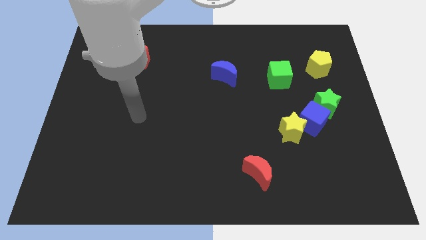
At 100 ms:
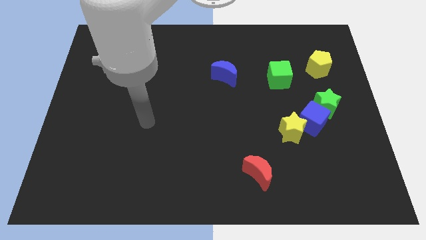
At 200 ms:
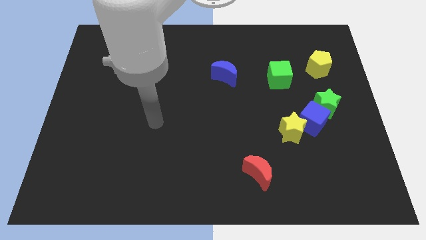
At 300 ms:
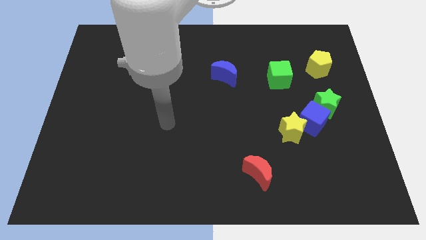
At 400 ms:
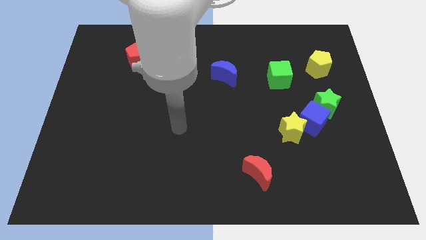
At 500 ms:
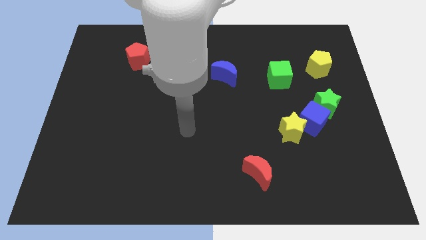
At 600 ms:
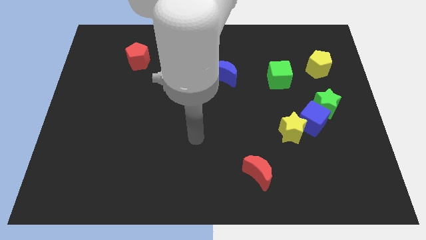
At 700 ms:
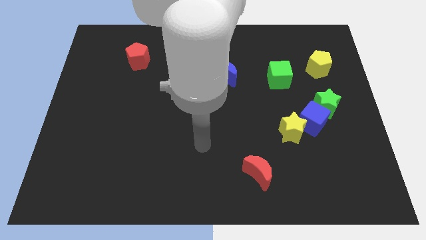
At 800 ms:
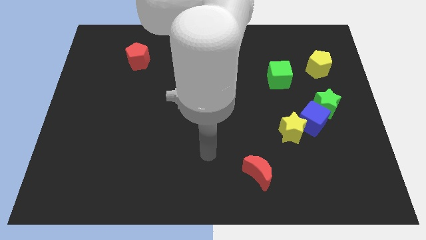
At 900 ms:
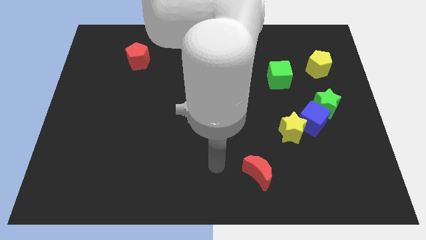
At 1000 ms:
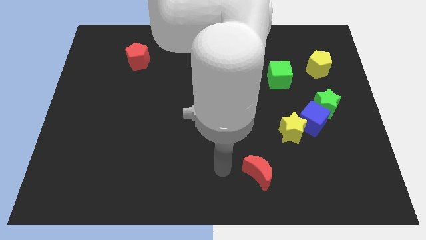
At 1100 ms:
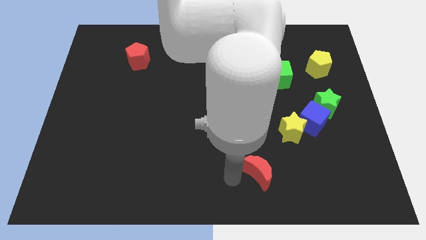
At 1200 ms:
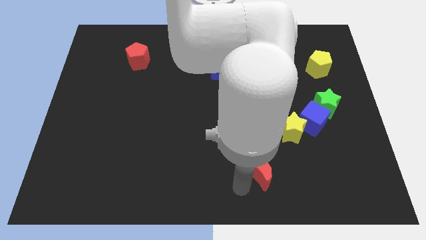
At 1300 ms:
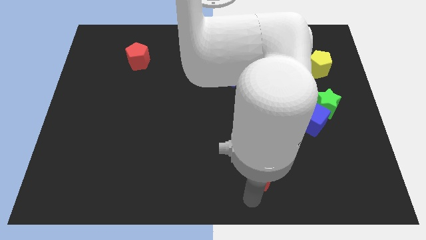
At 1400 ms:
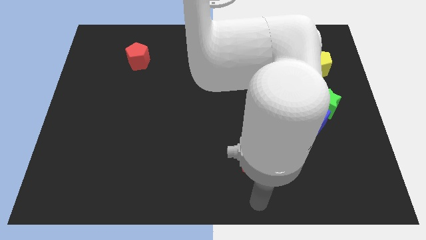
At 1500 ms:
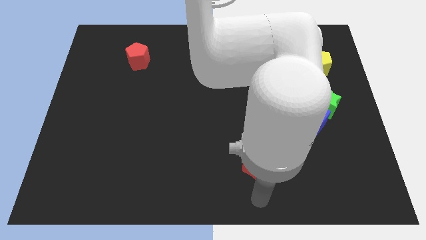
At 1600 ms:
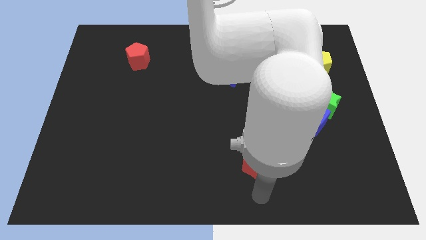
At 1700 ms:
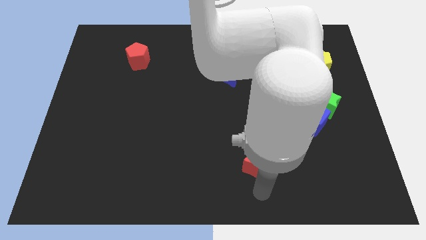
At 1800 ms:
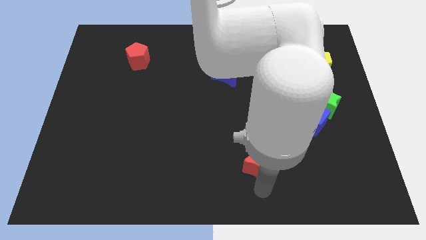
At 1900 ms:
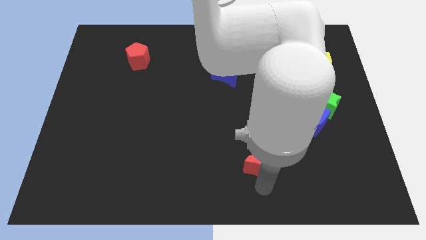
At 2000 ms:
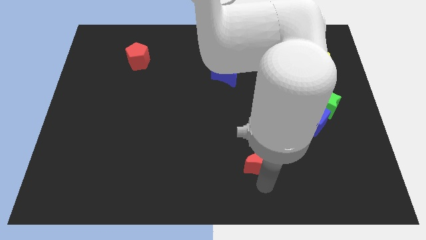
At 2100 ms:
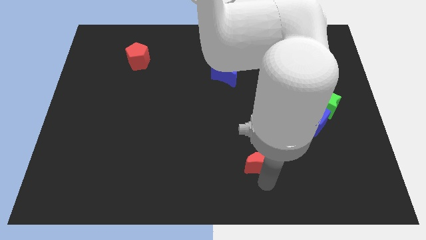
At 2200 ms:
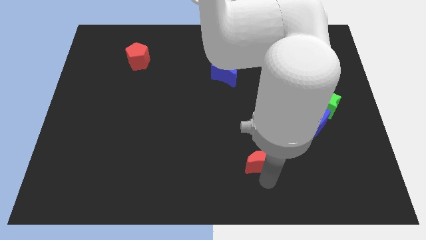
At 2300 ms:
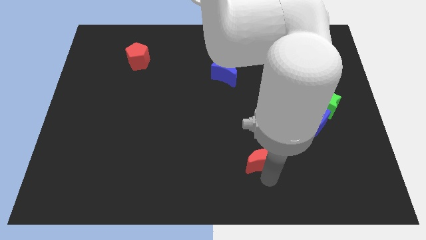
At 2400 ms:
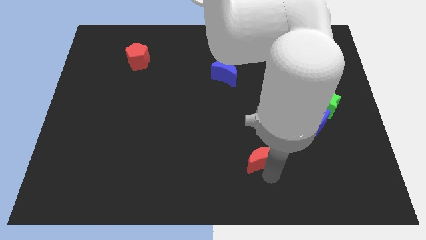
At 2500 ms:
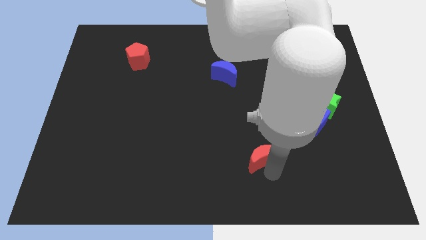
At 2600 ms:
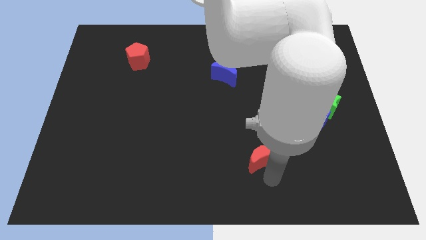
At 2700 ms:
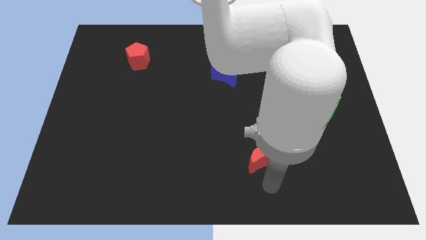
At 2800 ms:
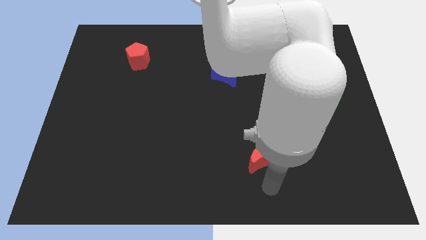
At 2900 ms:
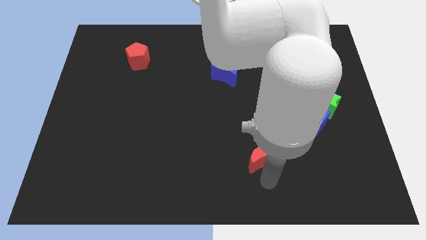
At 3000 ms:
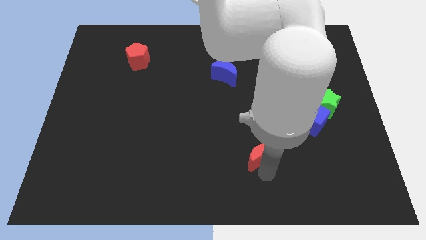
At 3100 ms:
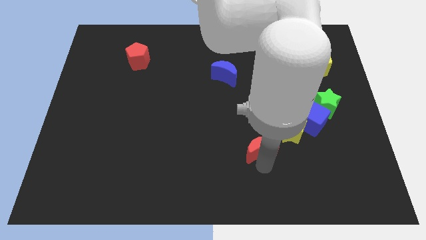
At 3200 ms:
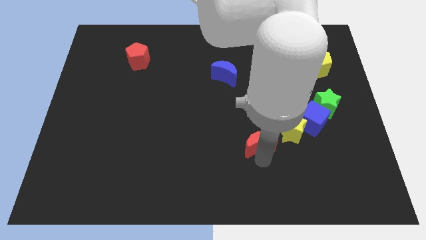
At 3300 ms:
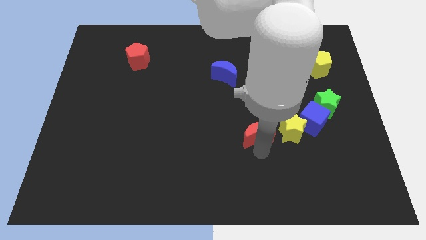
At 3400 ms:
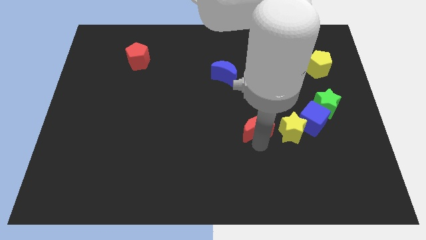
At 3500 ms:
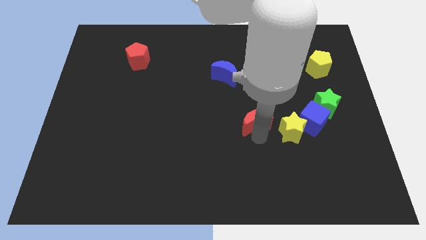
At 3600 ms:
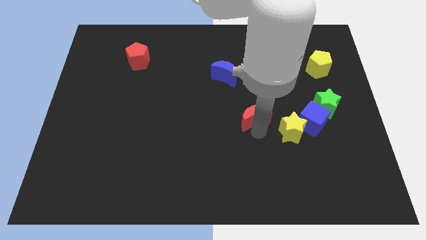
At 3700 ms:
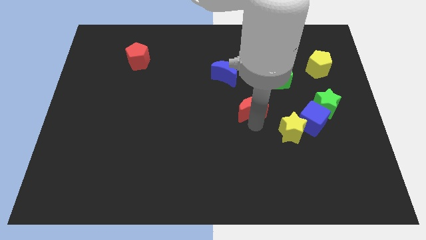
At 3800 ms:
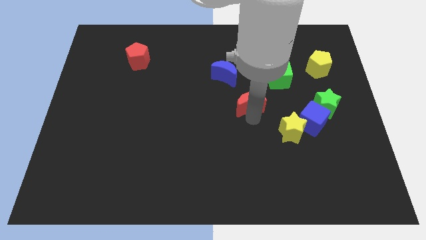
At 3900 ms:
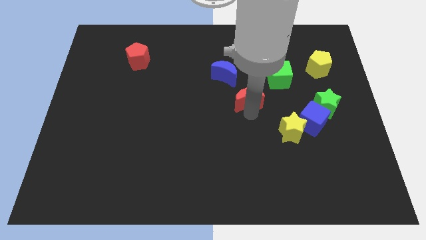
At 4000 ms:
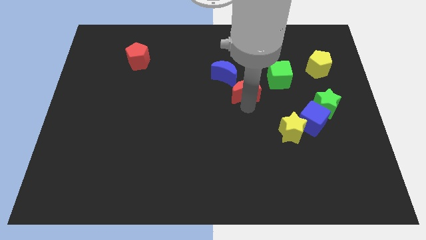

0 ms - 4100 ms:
push the red moon upwards

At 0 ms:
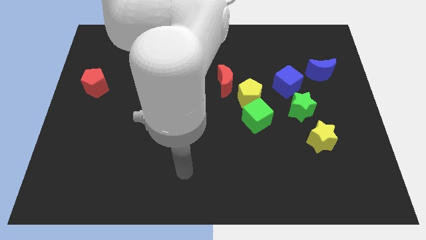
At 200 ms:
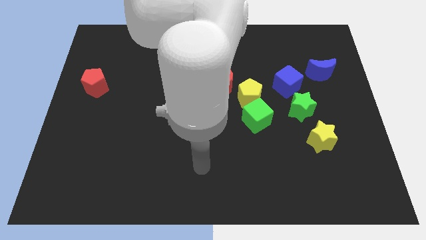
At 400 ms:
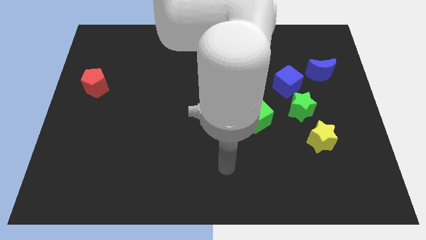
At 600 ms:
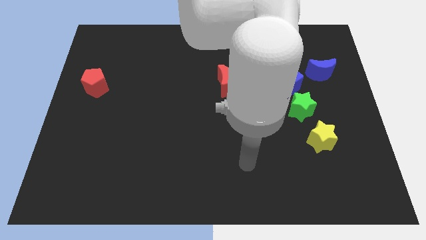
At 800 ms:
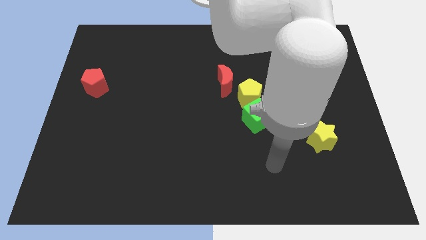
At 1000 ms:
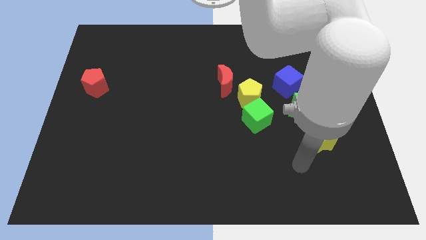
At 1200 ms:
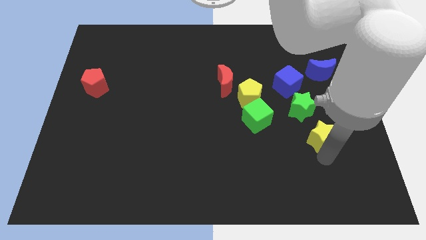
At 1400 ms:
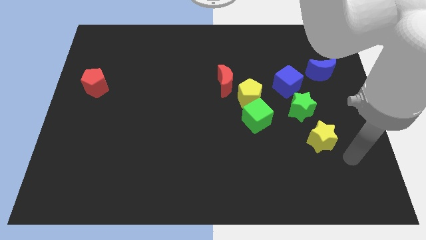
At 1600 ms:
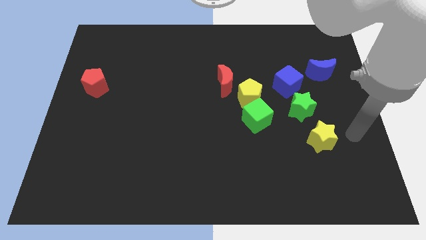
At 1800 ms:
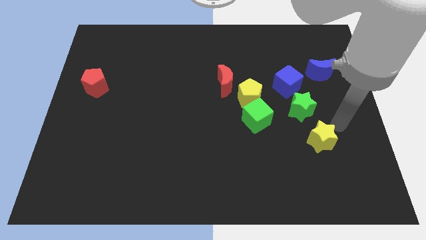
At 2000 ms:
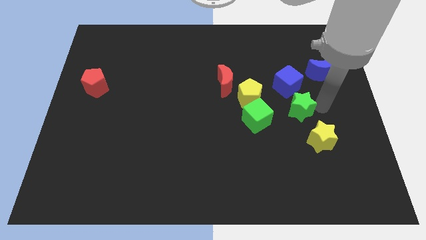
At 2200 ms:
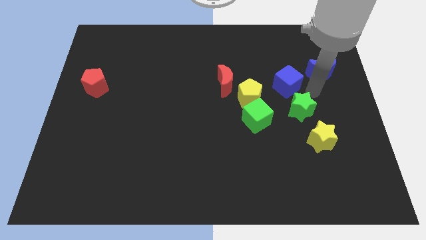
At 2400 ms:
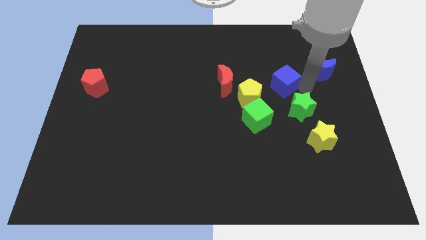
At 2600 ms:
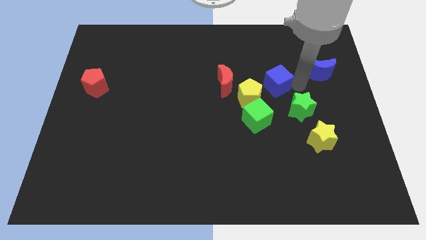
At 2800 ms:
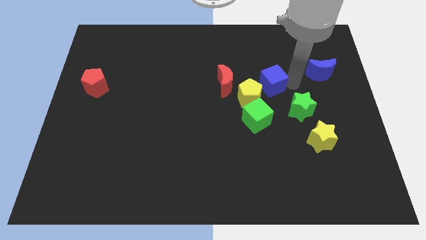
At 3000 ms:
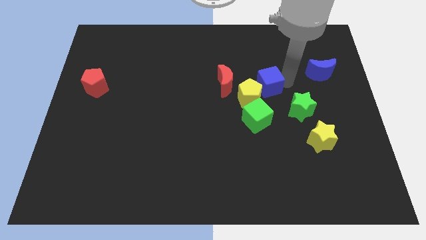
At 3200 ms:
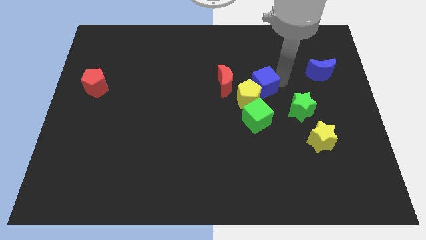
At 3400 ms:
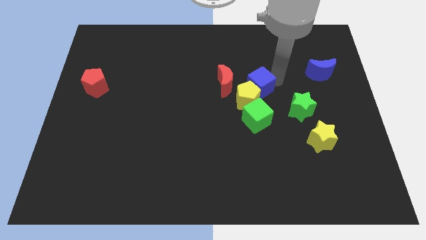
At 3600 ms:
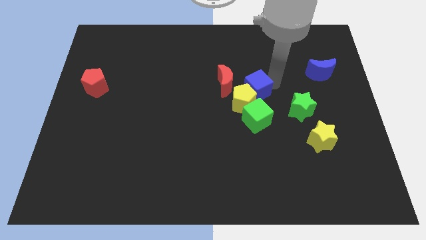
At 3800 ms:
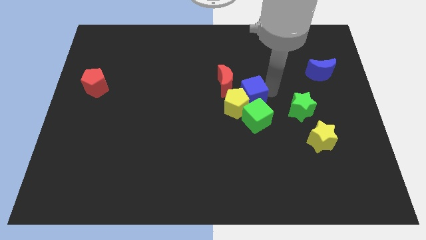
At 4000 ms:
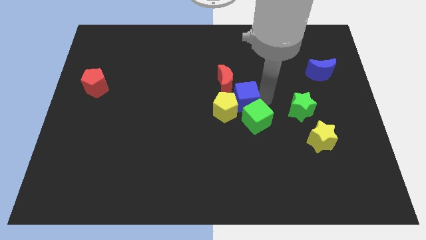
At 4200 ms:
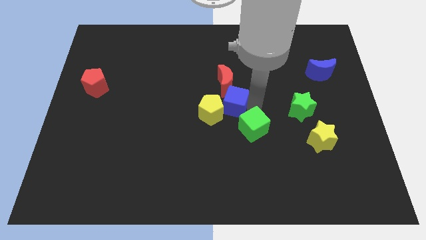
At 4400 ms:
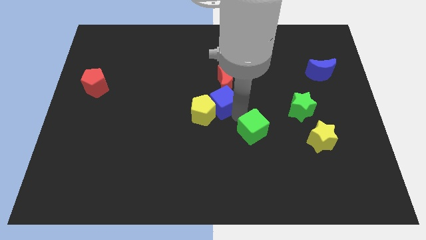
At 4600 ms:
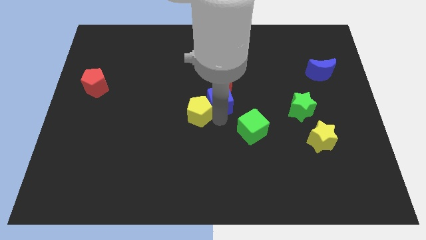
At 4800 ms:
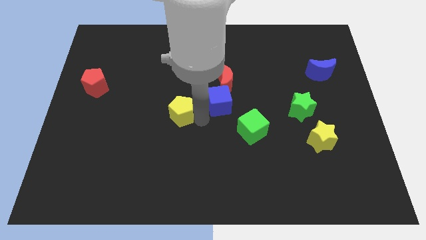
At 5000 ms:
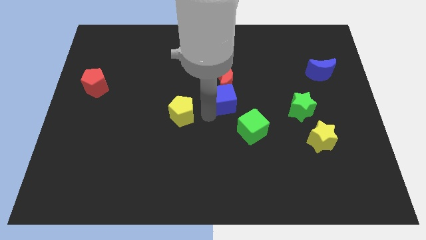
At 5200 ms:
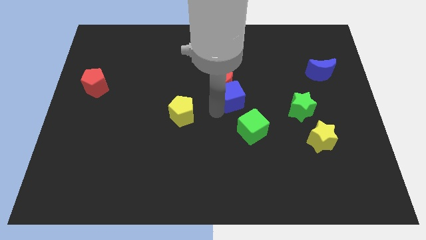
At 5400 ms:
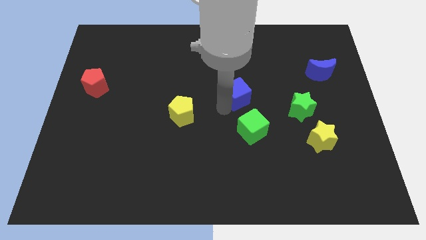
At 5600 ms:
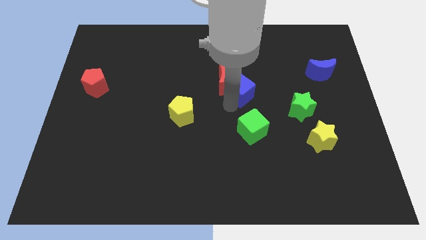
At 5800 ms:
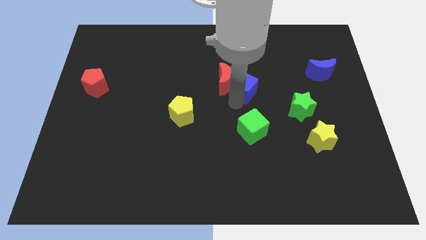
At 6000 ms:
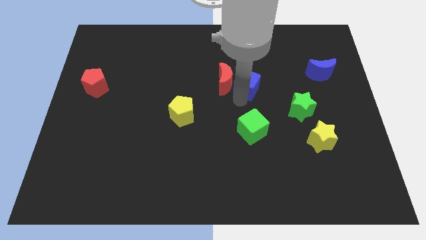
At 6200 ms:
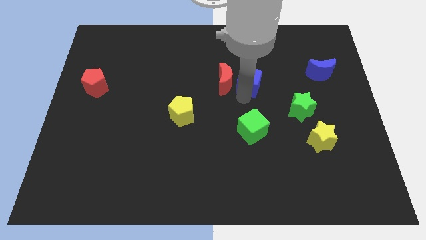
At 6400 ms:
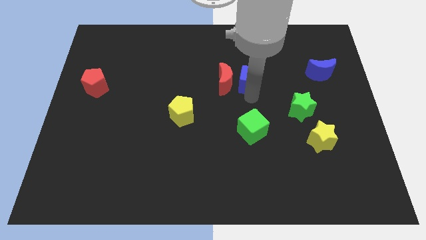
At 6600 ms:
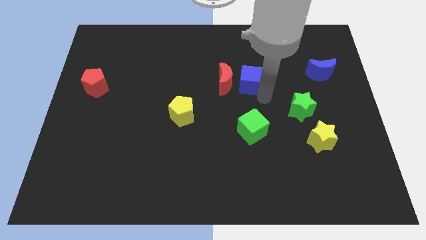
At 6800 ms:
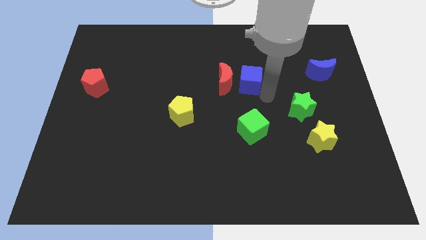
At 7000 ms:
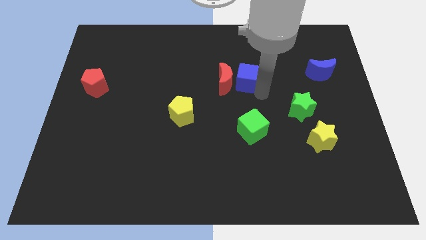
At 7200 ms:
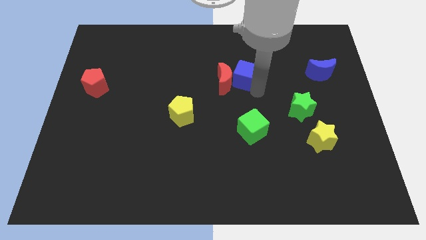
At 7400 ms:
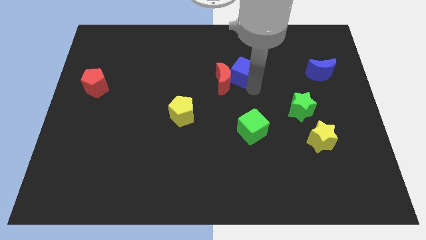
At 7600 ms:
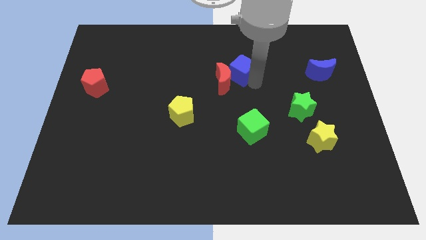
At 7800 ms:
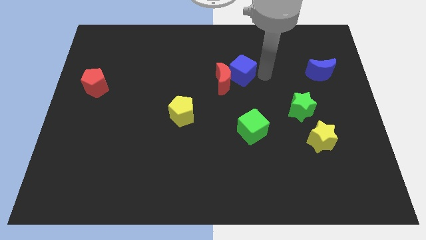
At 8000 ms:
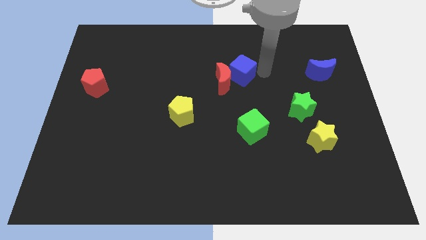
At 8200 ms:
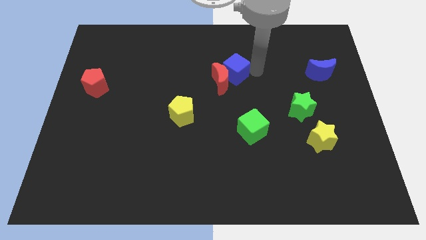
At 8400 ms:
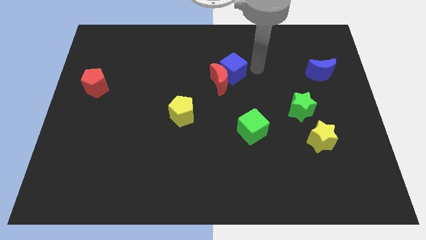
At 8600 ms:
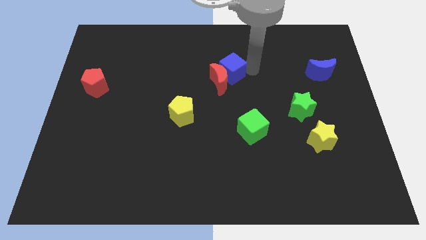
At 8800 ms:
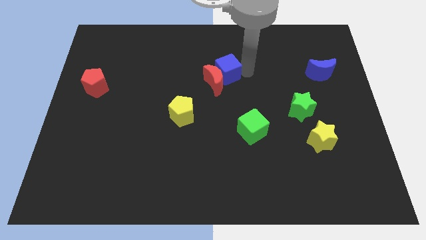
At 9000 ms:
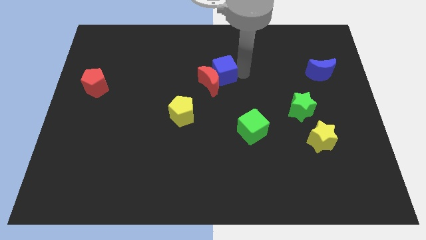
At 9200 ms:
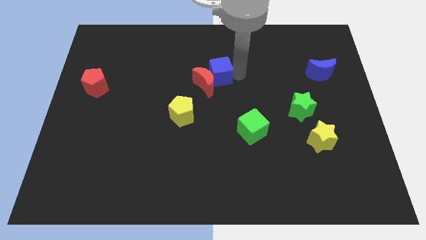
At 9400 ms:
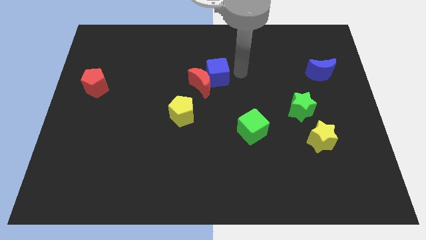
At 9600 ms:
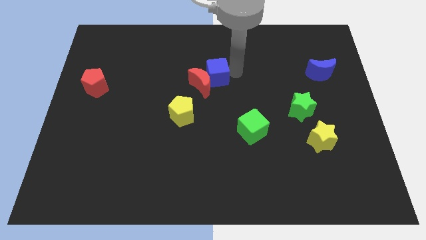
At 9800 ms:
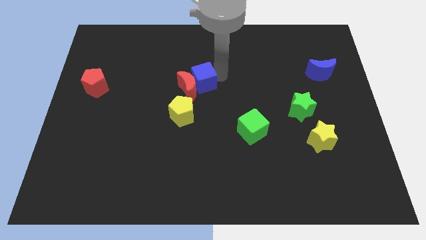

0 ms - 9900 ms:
move the blue cube to the left
